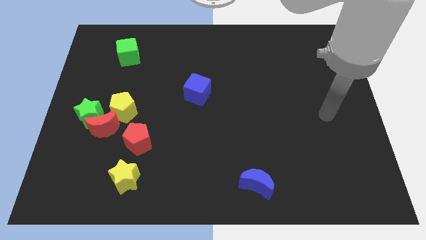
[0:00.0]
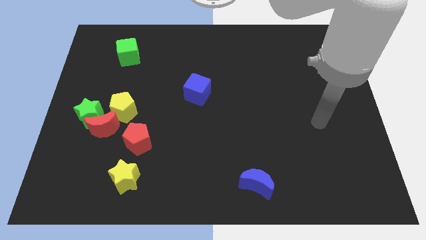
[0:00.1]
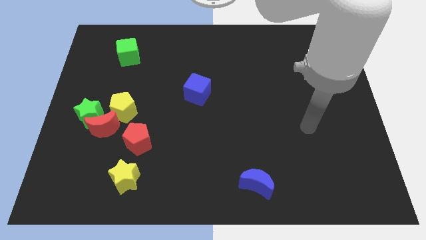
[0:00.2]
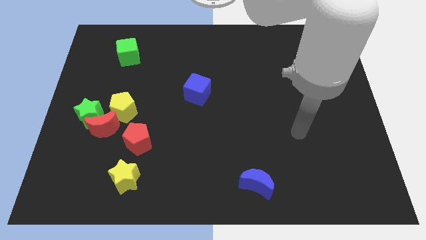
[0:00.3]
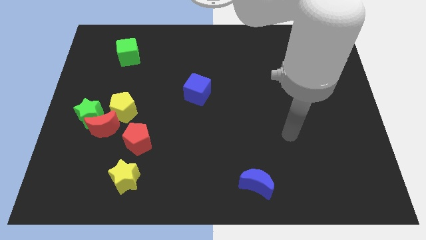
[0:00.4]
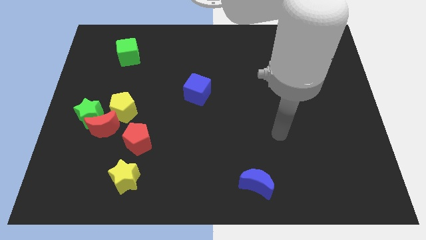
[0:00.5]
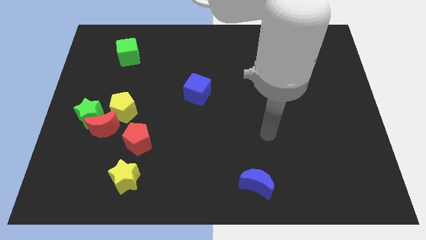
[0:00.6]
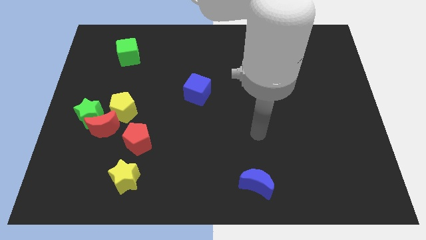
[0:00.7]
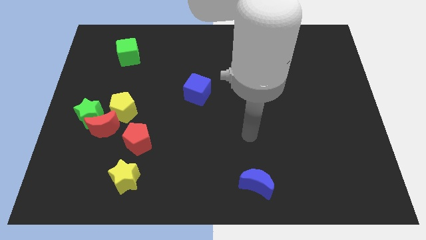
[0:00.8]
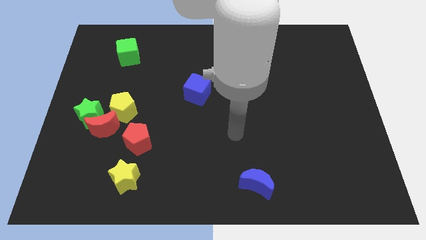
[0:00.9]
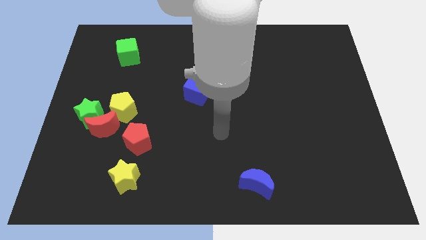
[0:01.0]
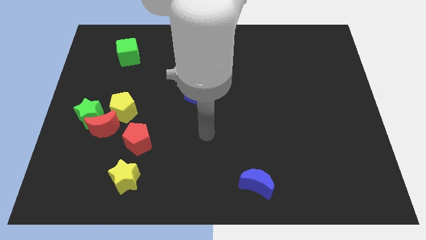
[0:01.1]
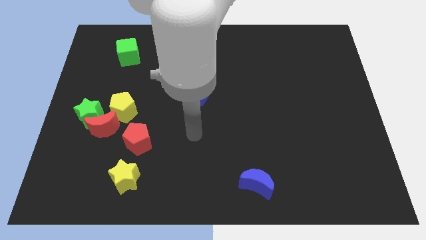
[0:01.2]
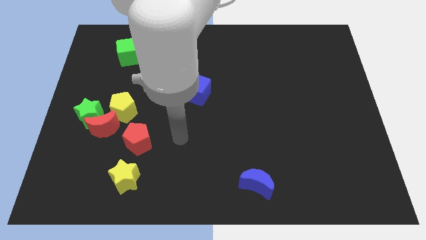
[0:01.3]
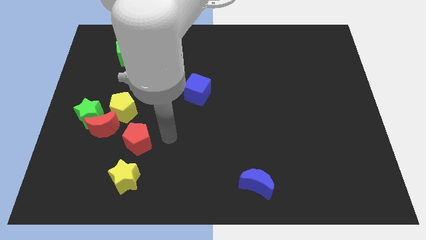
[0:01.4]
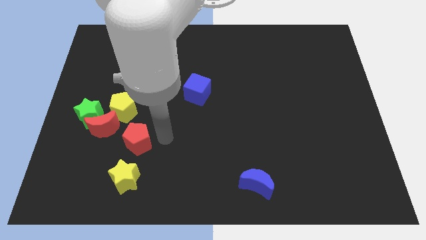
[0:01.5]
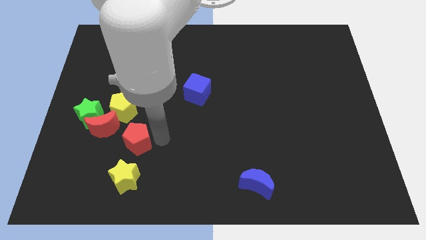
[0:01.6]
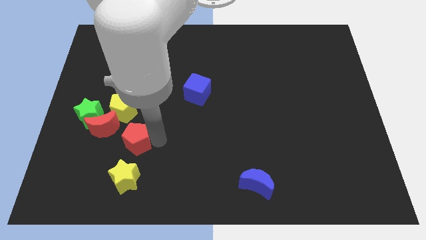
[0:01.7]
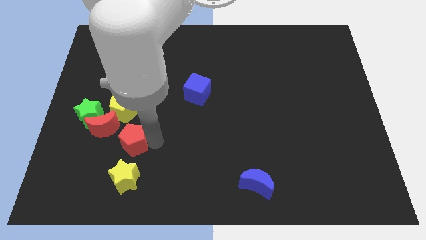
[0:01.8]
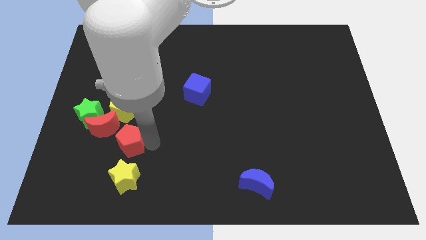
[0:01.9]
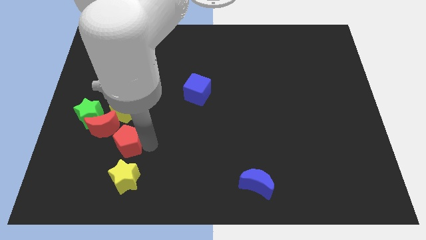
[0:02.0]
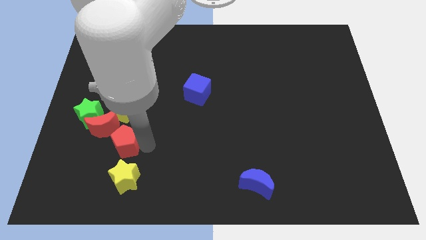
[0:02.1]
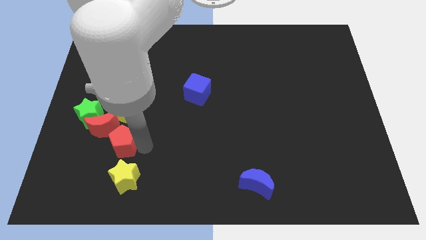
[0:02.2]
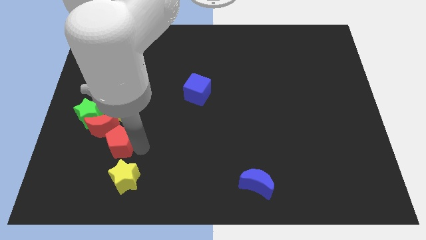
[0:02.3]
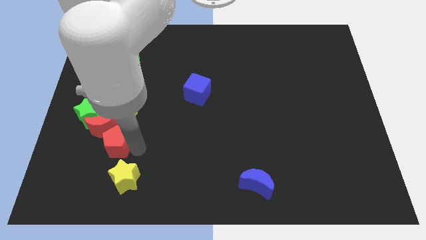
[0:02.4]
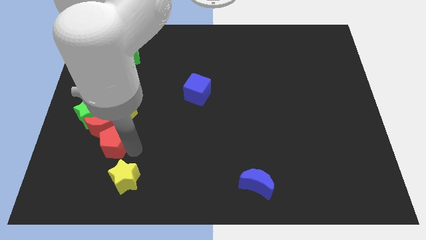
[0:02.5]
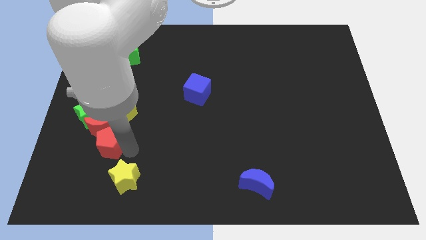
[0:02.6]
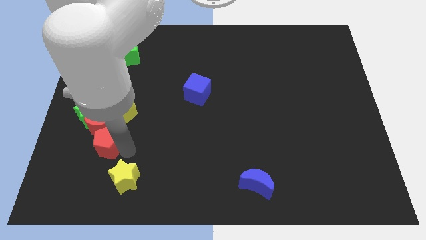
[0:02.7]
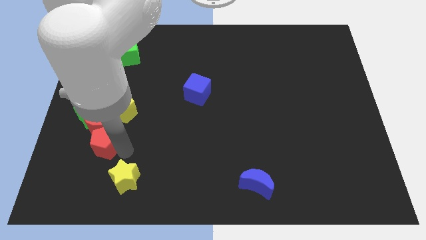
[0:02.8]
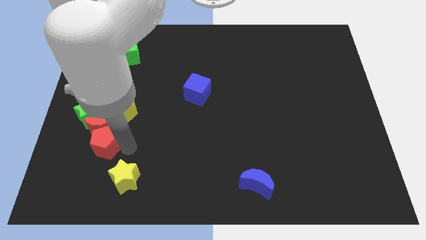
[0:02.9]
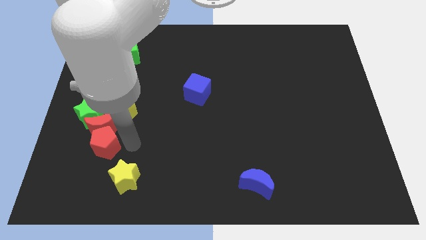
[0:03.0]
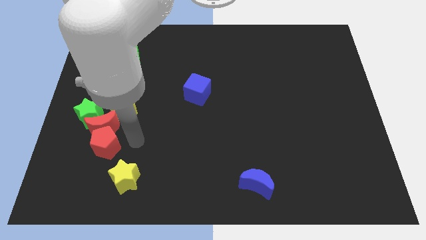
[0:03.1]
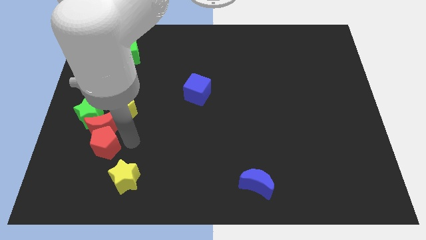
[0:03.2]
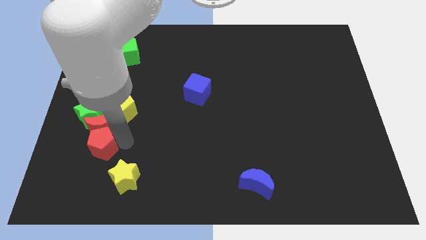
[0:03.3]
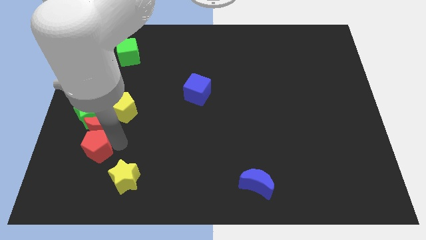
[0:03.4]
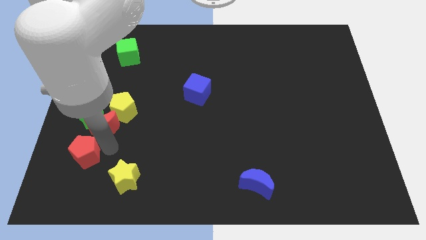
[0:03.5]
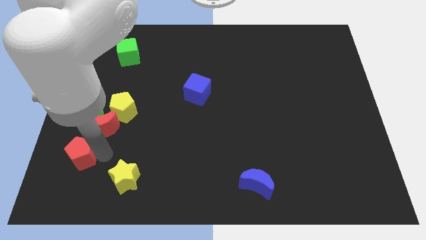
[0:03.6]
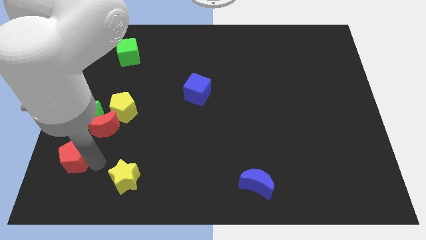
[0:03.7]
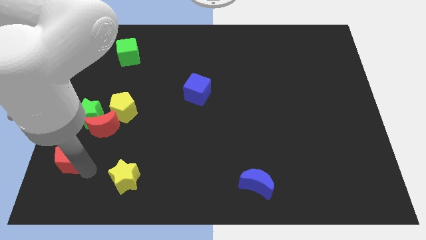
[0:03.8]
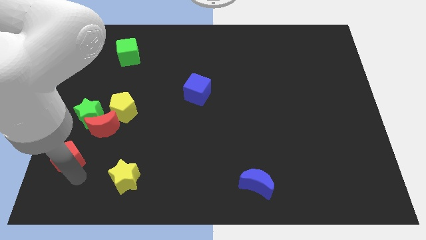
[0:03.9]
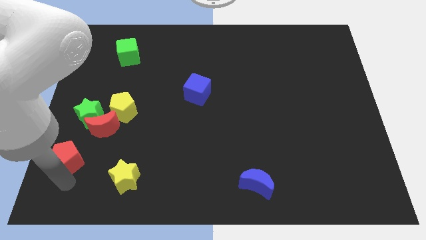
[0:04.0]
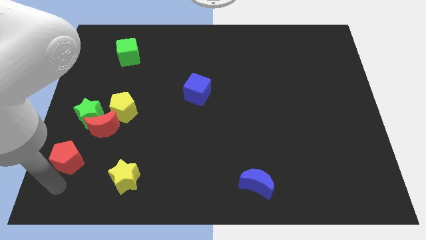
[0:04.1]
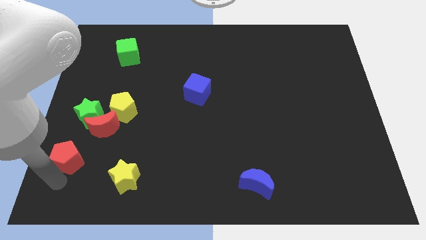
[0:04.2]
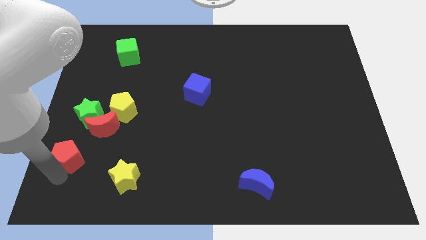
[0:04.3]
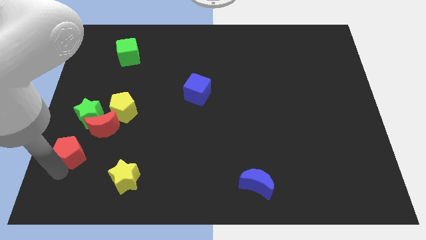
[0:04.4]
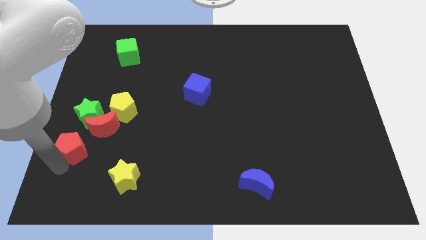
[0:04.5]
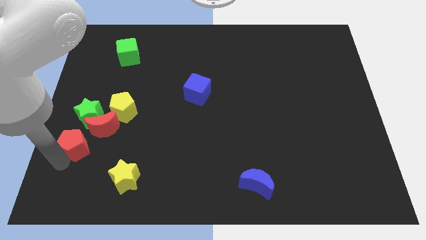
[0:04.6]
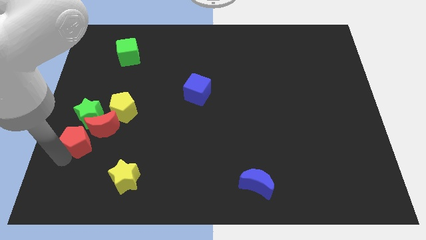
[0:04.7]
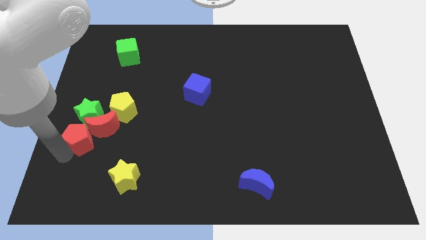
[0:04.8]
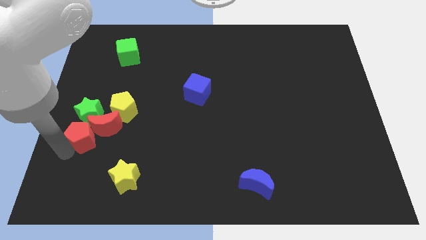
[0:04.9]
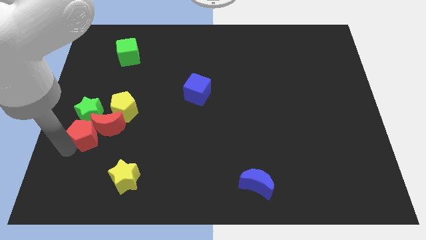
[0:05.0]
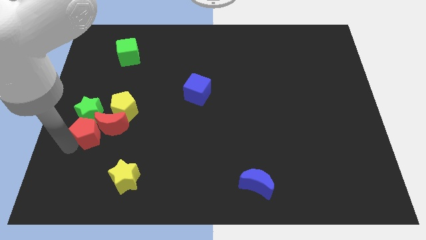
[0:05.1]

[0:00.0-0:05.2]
push the red pentagon towards the green star

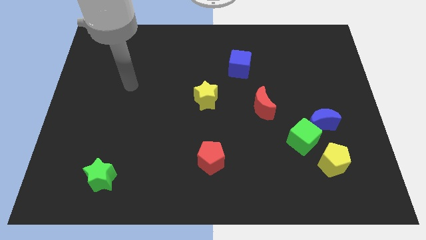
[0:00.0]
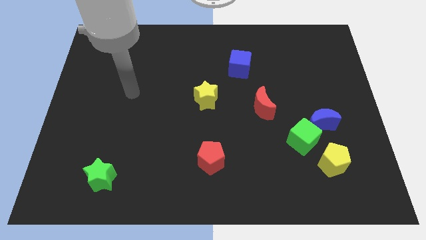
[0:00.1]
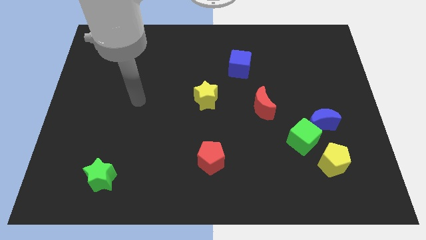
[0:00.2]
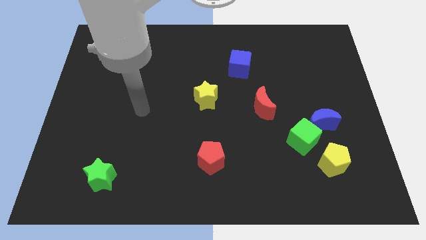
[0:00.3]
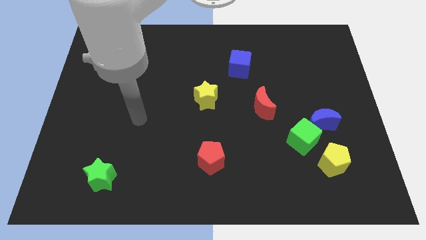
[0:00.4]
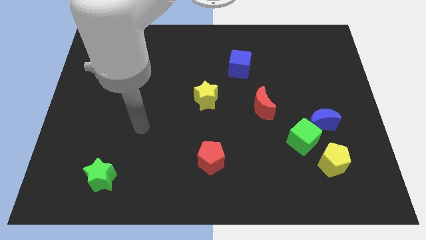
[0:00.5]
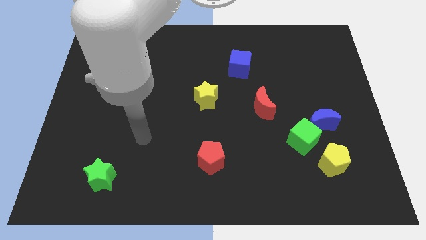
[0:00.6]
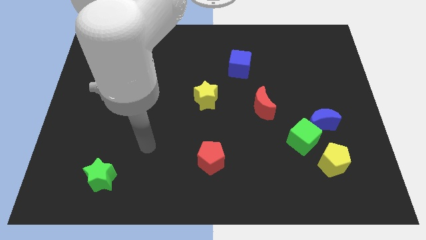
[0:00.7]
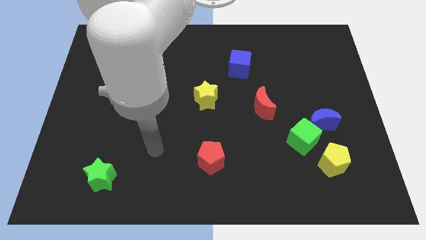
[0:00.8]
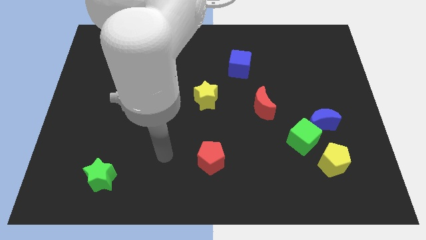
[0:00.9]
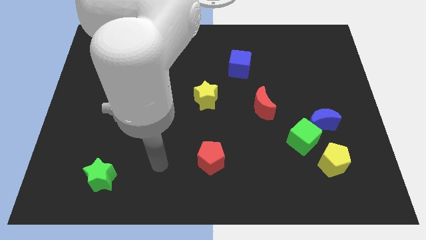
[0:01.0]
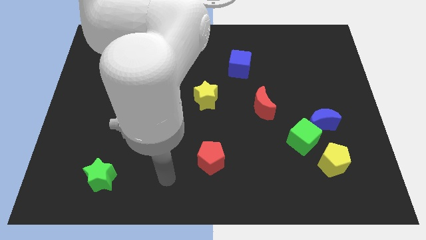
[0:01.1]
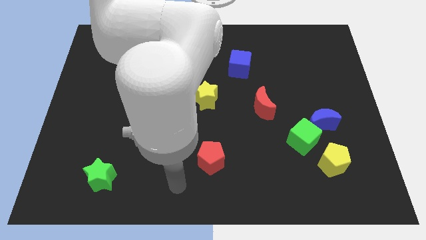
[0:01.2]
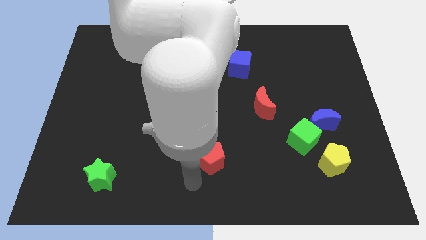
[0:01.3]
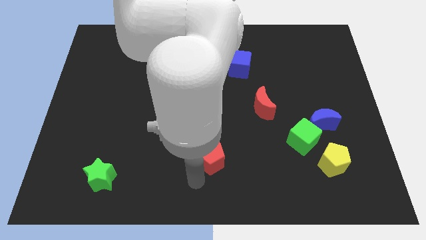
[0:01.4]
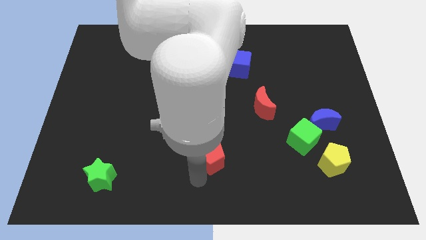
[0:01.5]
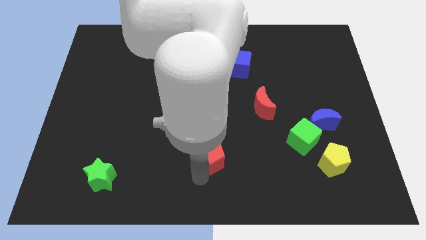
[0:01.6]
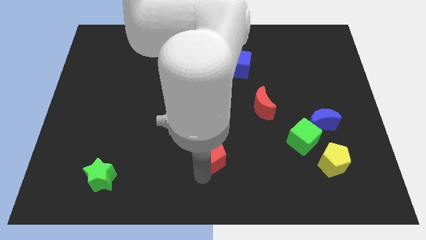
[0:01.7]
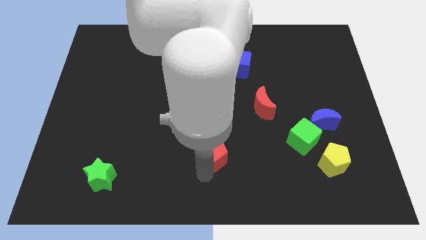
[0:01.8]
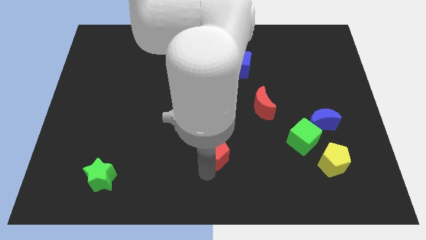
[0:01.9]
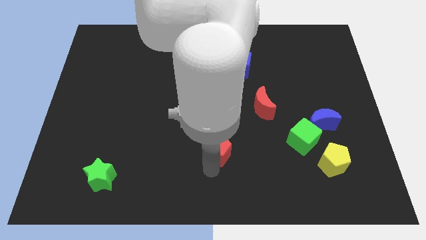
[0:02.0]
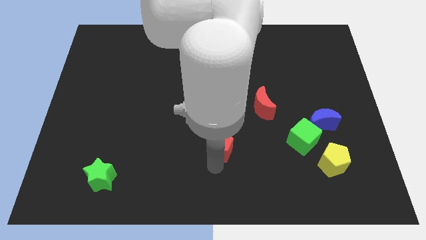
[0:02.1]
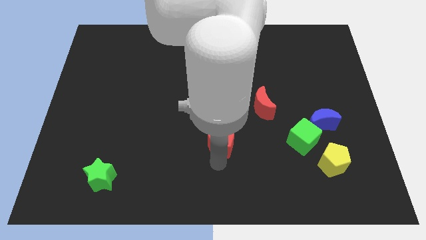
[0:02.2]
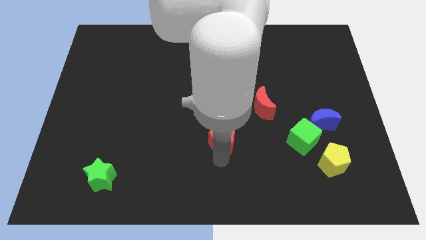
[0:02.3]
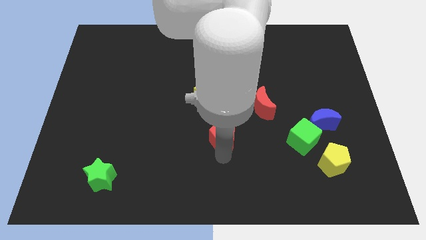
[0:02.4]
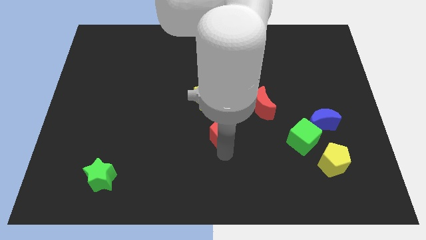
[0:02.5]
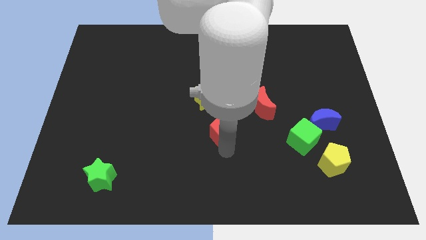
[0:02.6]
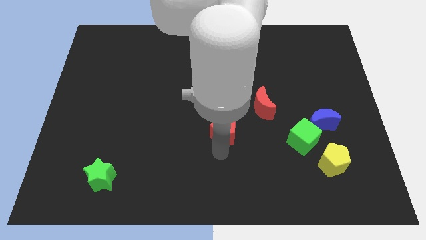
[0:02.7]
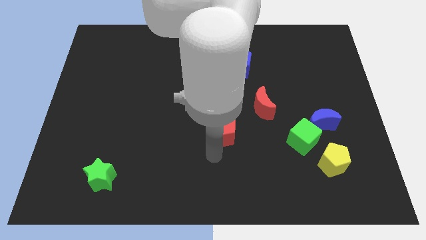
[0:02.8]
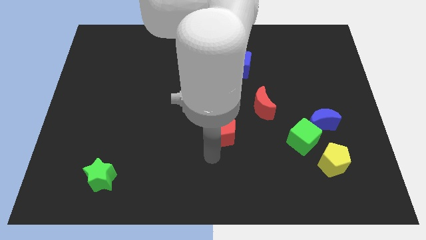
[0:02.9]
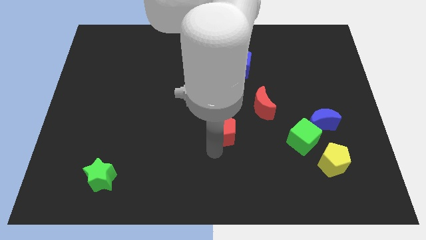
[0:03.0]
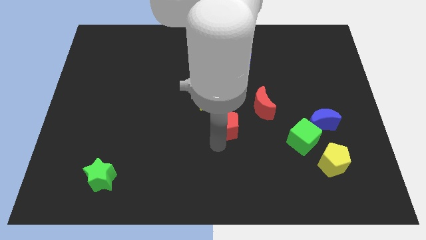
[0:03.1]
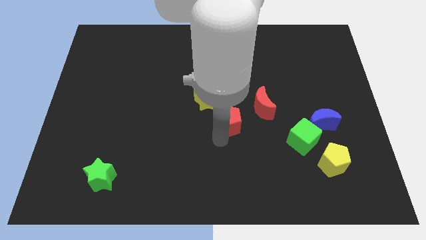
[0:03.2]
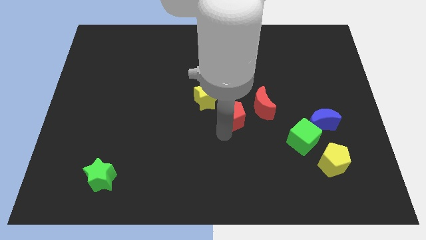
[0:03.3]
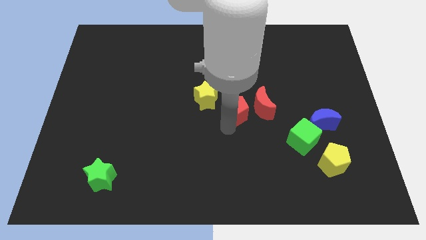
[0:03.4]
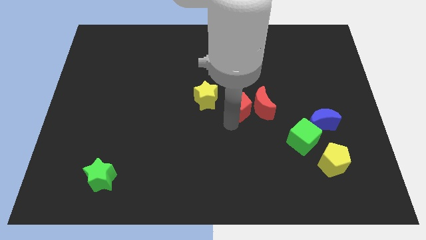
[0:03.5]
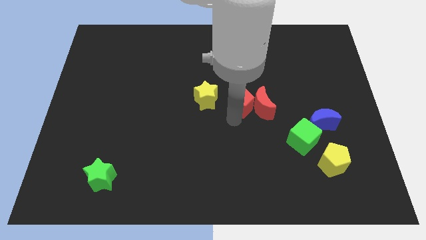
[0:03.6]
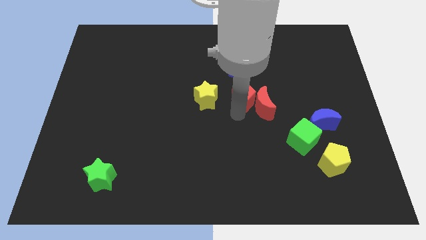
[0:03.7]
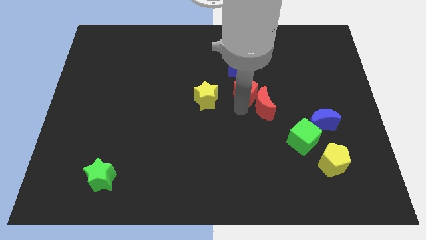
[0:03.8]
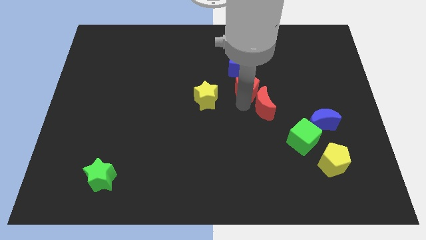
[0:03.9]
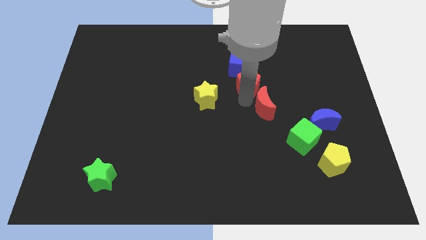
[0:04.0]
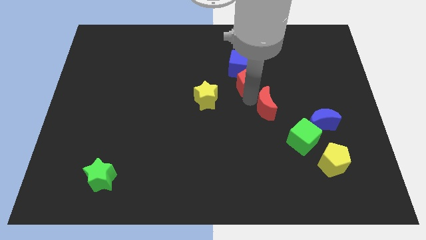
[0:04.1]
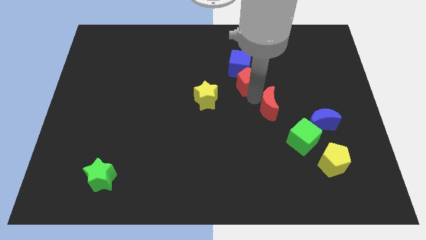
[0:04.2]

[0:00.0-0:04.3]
slide the red pentagon close to the blue cube
